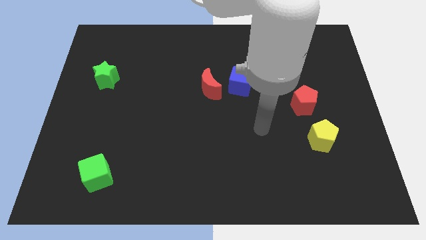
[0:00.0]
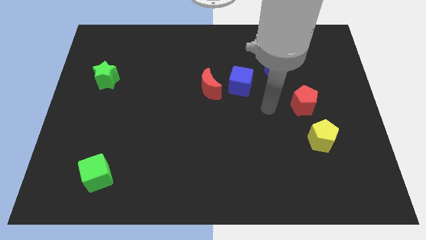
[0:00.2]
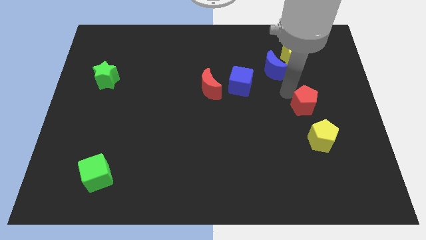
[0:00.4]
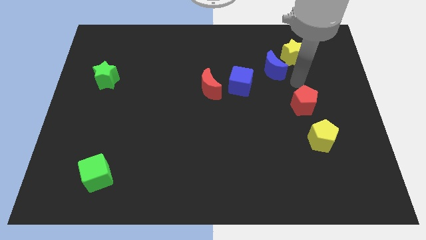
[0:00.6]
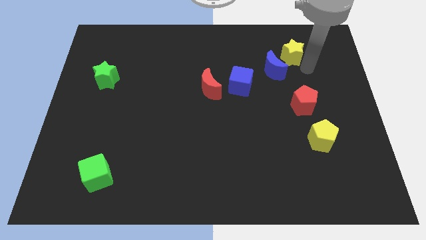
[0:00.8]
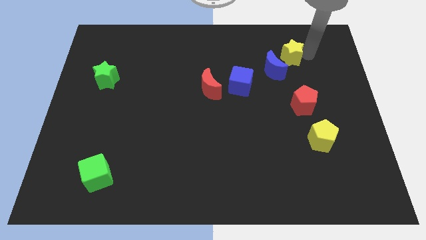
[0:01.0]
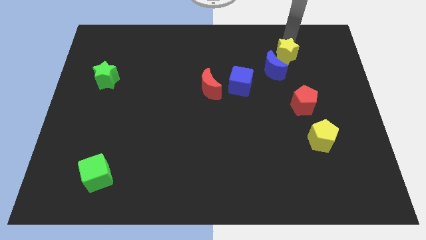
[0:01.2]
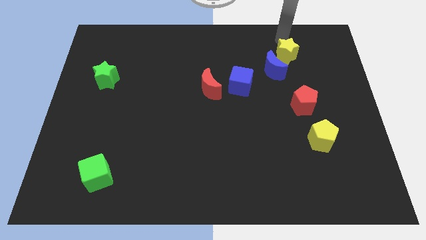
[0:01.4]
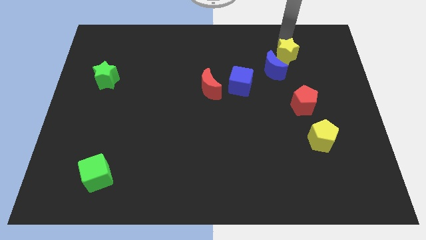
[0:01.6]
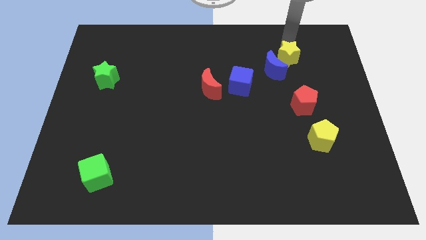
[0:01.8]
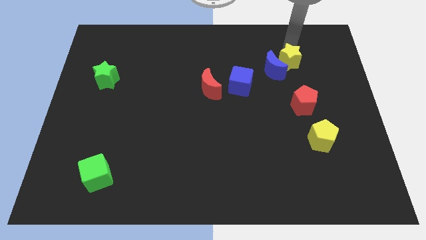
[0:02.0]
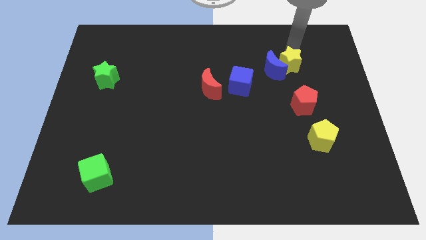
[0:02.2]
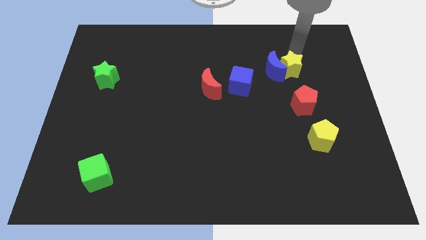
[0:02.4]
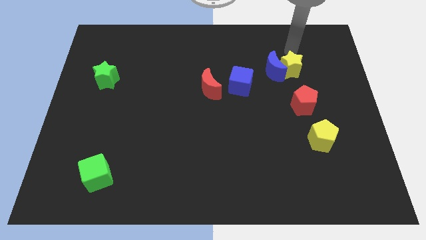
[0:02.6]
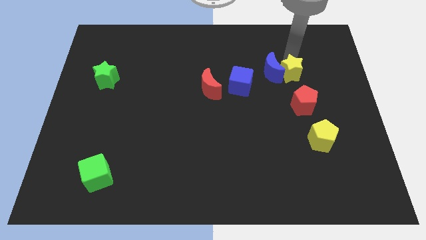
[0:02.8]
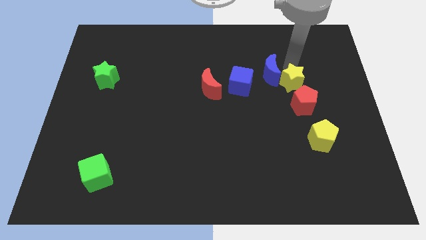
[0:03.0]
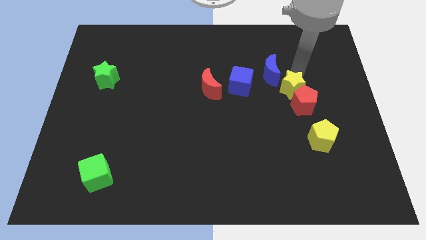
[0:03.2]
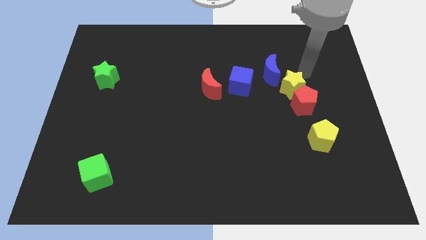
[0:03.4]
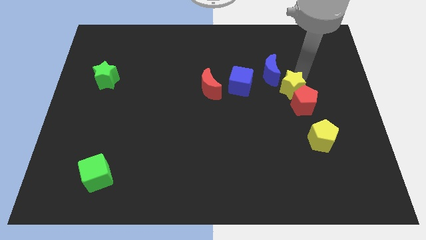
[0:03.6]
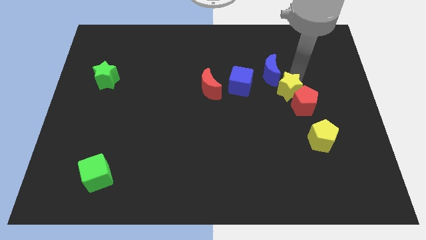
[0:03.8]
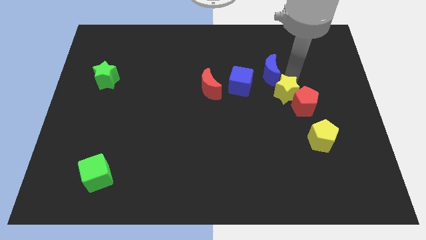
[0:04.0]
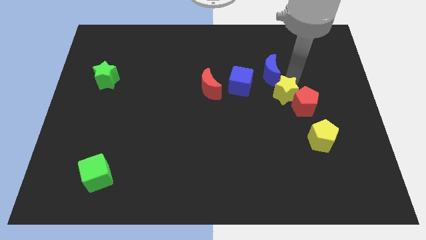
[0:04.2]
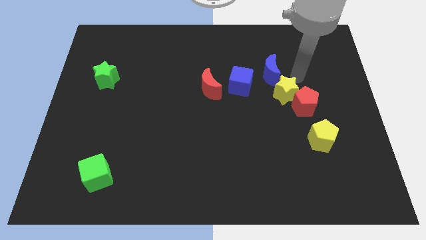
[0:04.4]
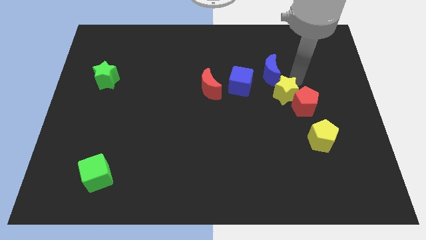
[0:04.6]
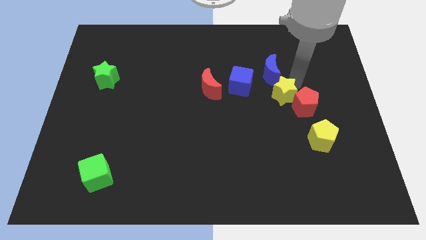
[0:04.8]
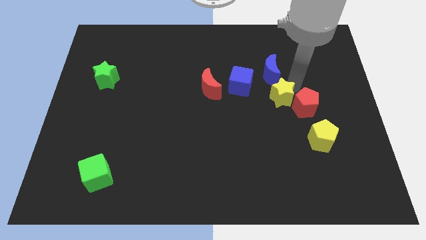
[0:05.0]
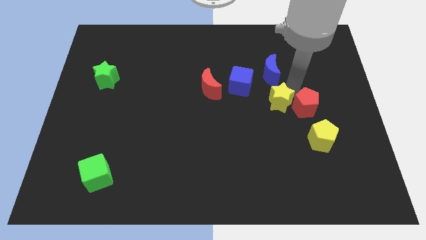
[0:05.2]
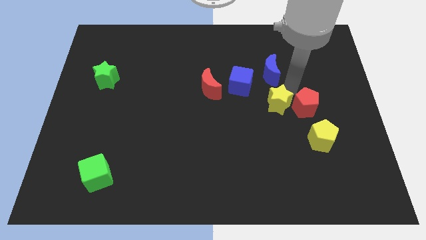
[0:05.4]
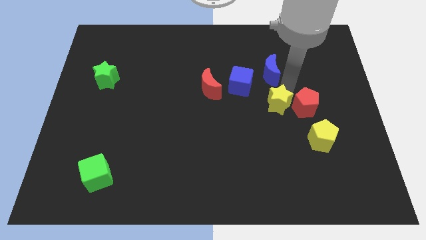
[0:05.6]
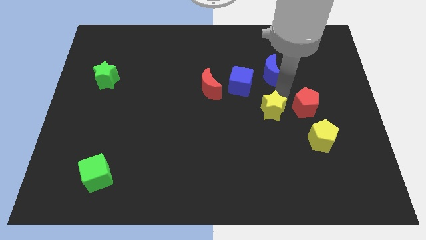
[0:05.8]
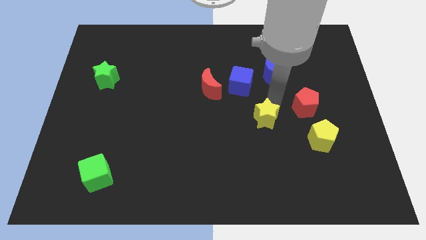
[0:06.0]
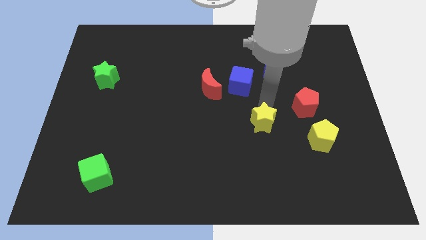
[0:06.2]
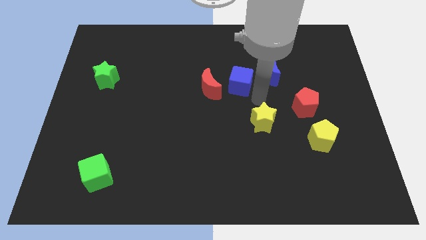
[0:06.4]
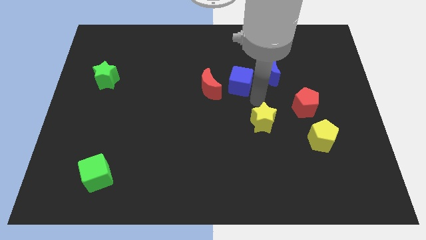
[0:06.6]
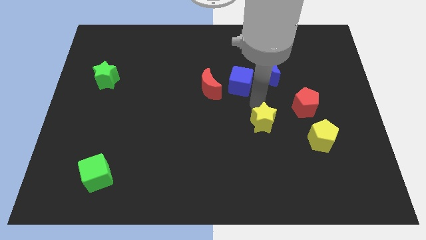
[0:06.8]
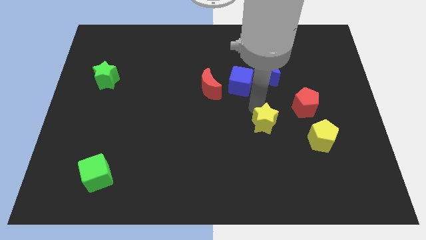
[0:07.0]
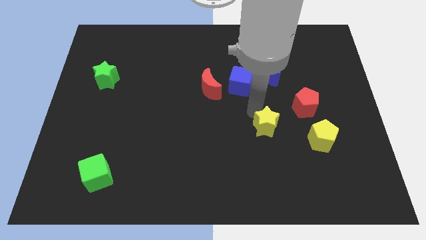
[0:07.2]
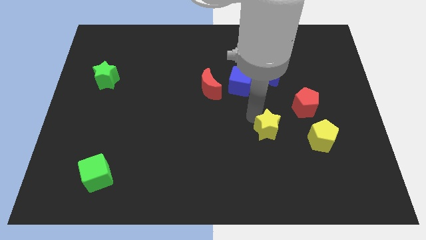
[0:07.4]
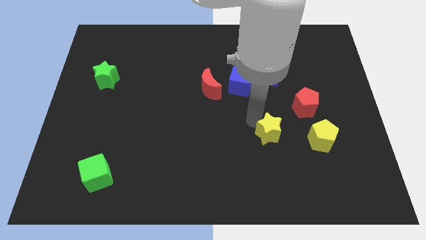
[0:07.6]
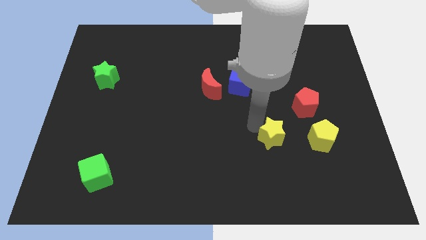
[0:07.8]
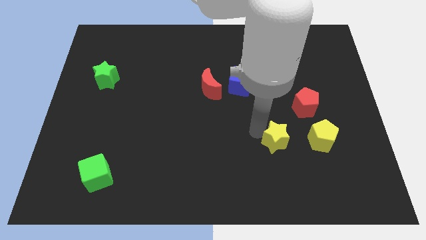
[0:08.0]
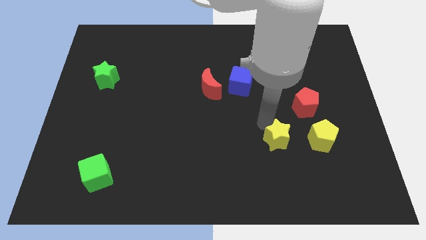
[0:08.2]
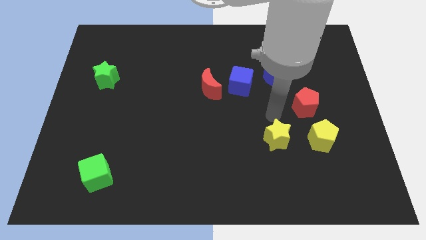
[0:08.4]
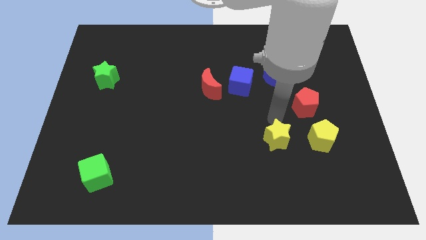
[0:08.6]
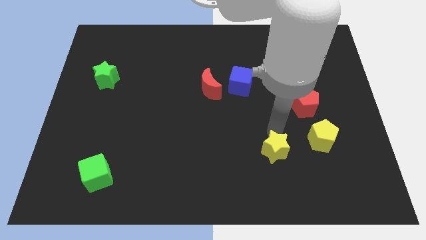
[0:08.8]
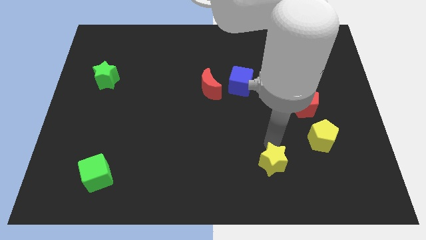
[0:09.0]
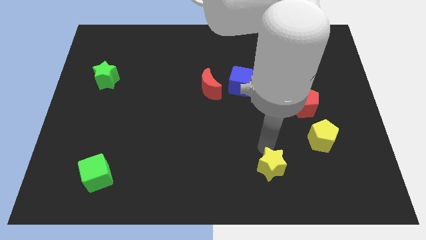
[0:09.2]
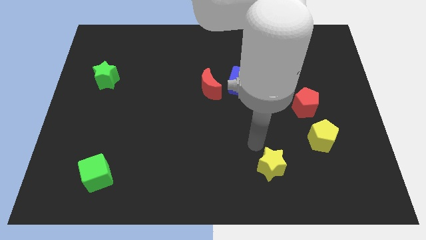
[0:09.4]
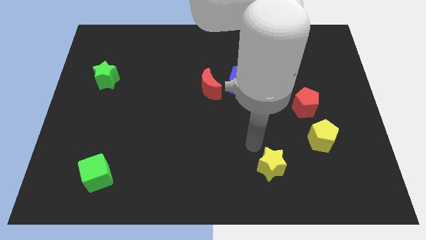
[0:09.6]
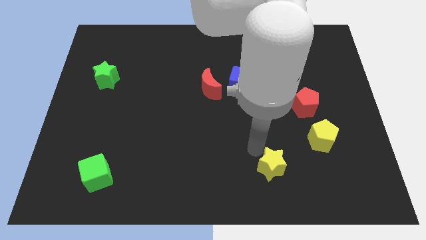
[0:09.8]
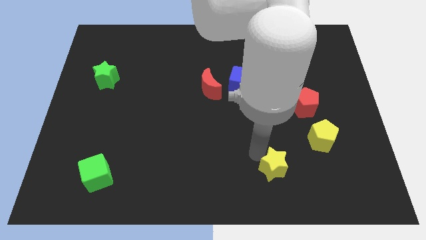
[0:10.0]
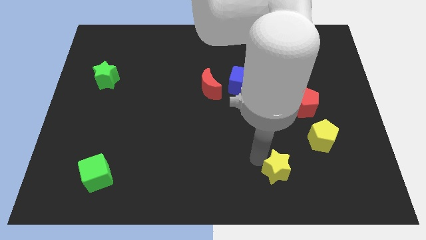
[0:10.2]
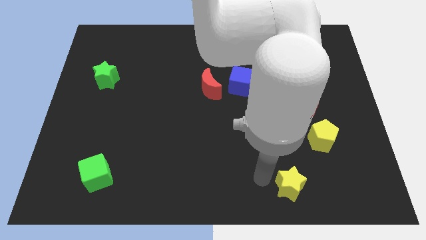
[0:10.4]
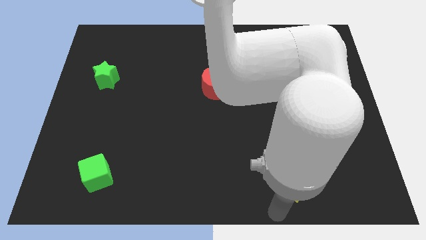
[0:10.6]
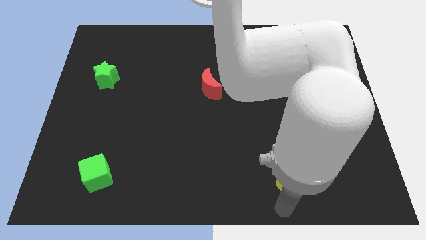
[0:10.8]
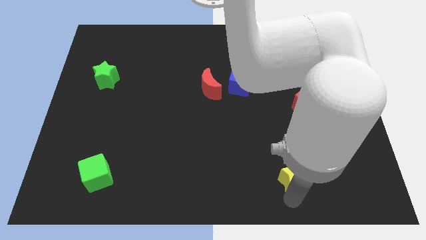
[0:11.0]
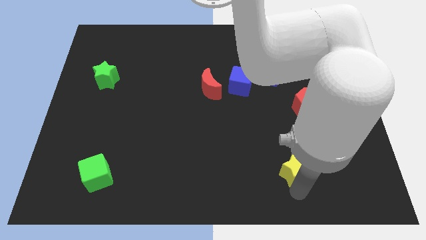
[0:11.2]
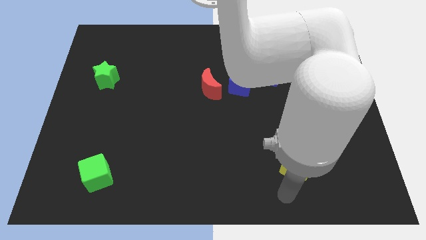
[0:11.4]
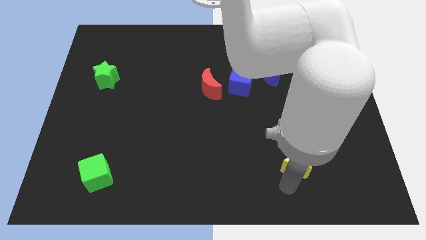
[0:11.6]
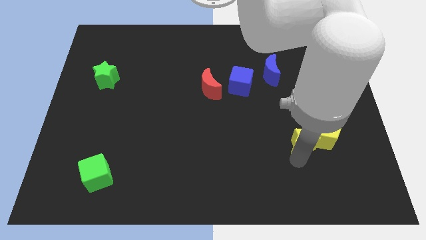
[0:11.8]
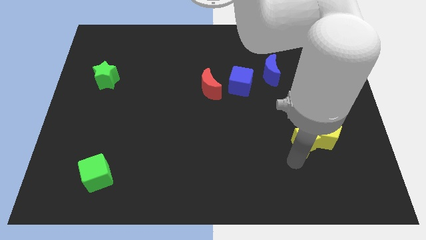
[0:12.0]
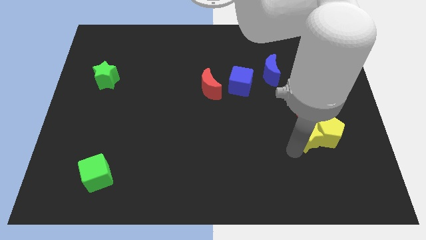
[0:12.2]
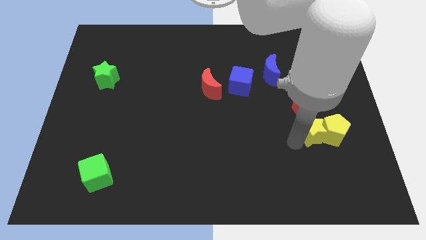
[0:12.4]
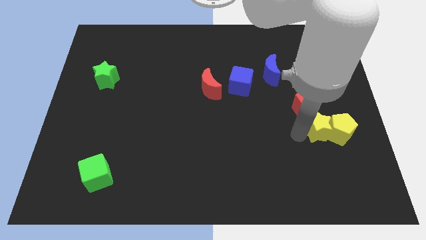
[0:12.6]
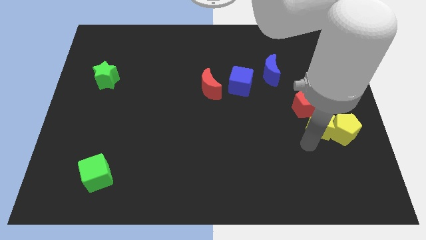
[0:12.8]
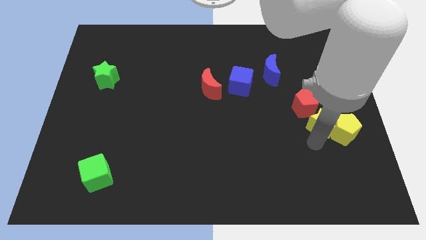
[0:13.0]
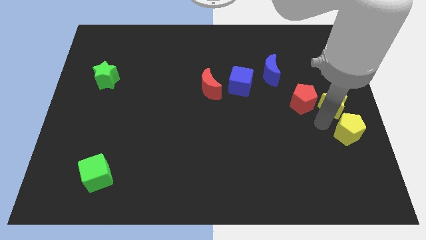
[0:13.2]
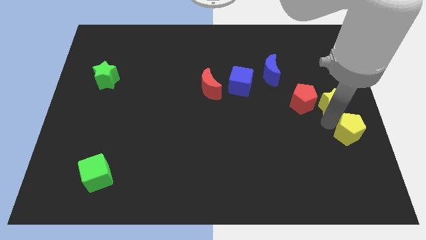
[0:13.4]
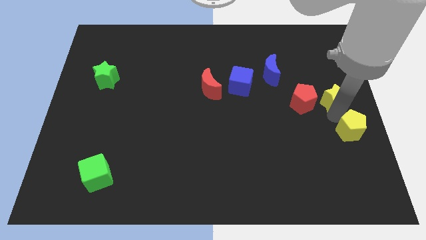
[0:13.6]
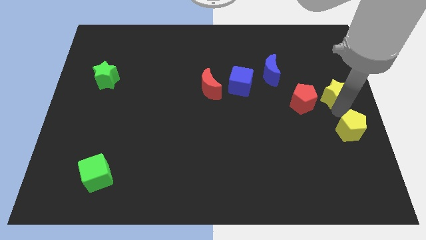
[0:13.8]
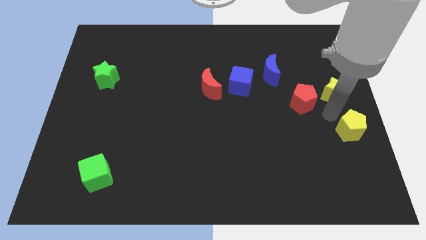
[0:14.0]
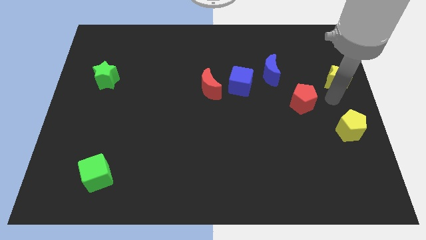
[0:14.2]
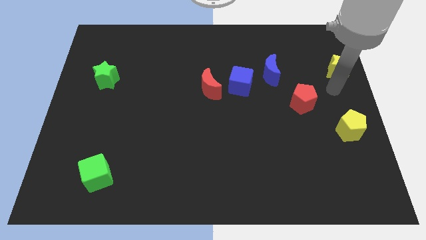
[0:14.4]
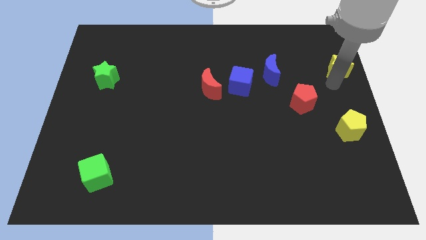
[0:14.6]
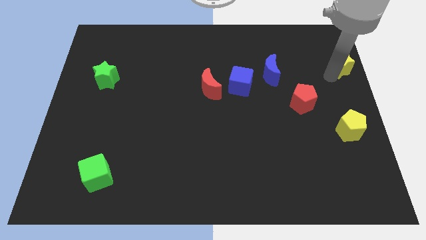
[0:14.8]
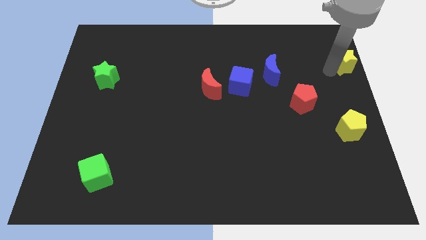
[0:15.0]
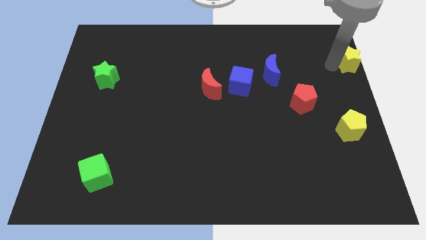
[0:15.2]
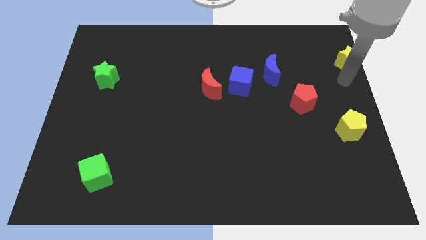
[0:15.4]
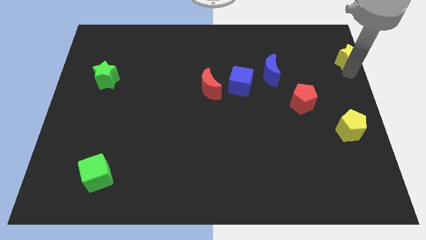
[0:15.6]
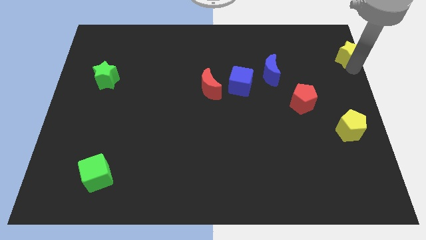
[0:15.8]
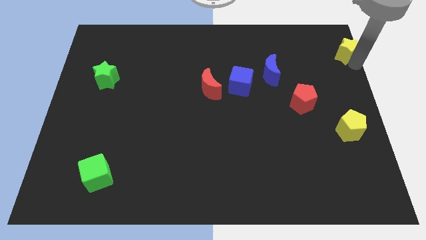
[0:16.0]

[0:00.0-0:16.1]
put the yellow star to the top right of the board
